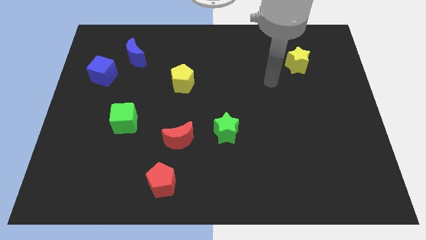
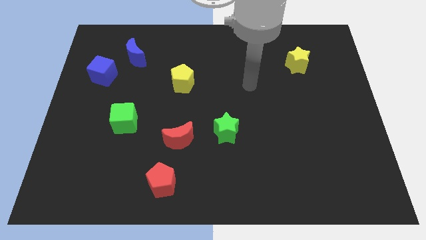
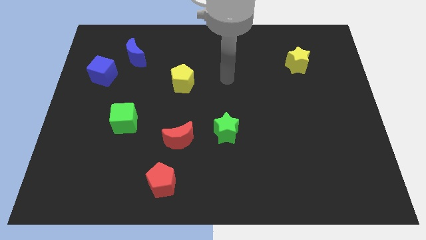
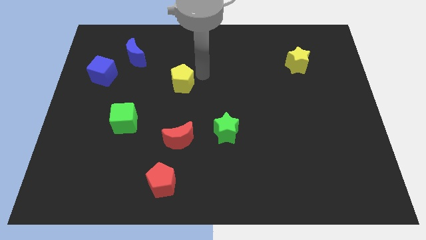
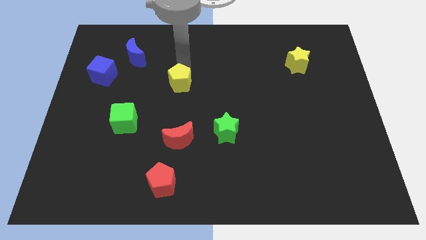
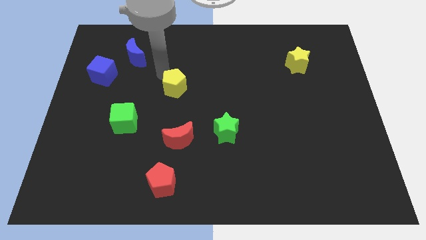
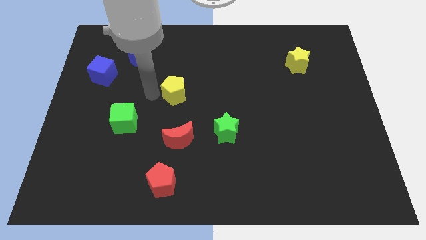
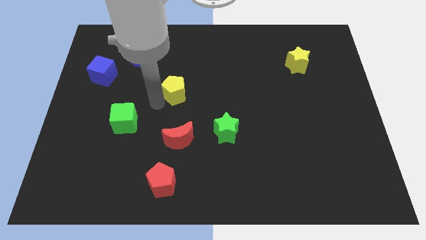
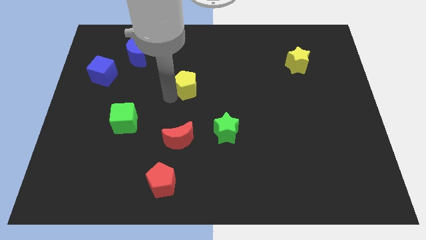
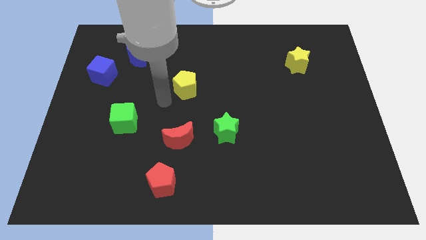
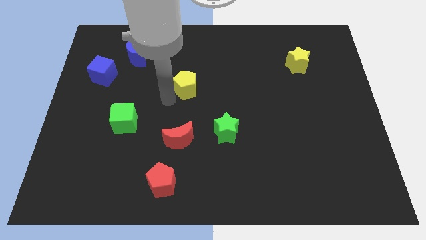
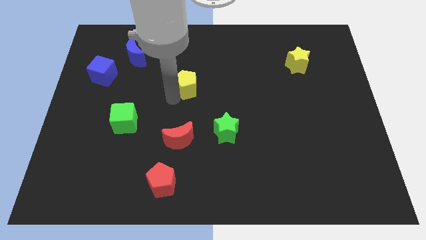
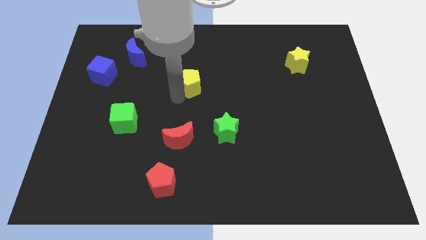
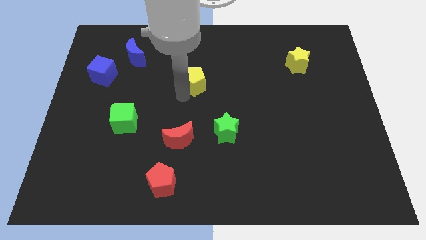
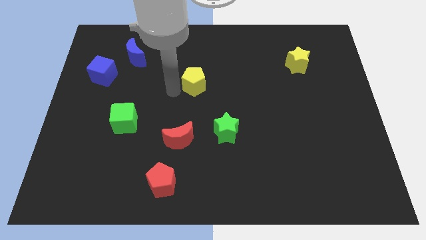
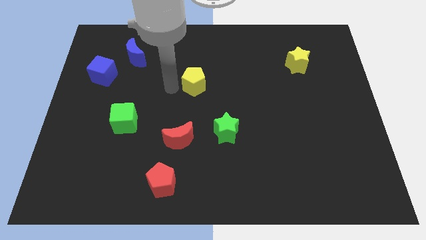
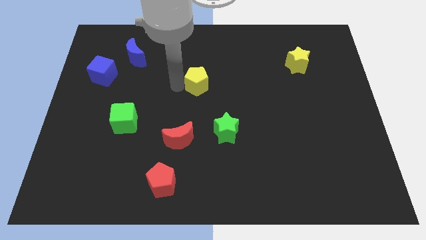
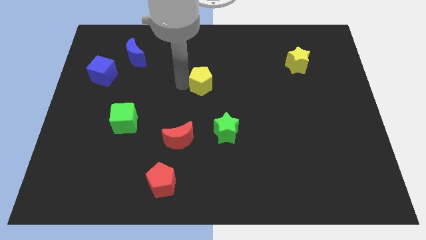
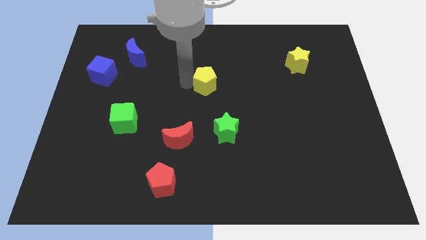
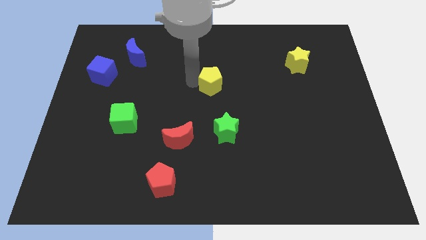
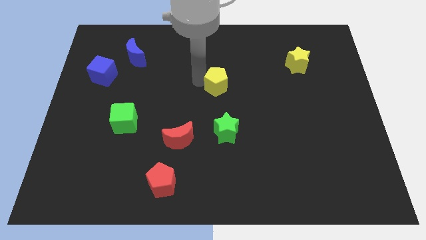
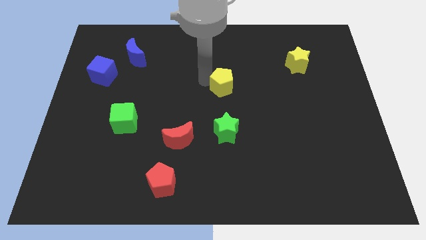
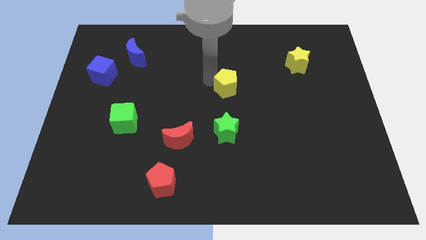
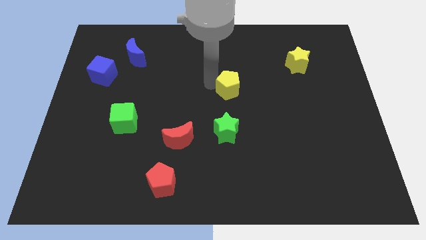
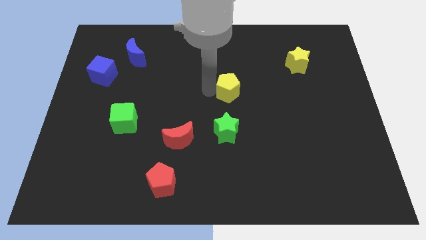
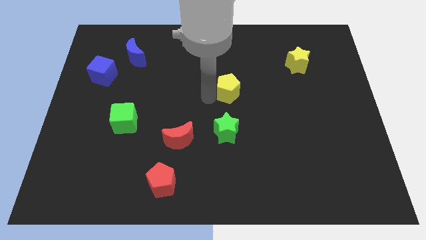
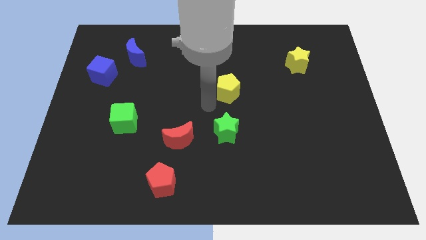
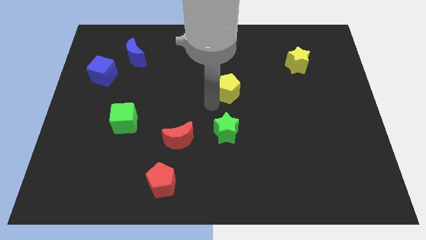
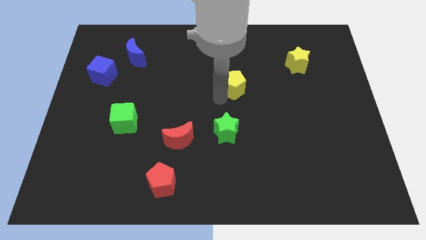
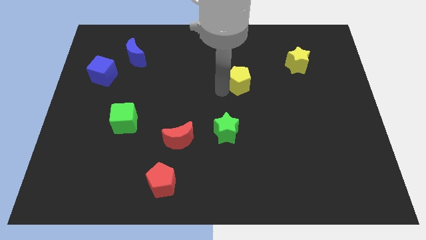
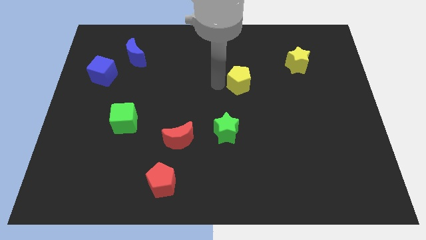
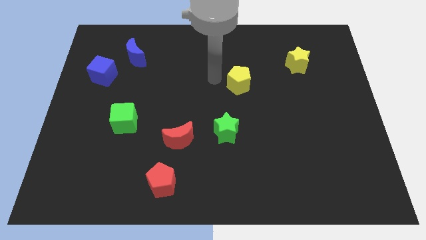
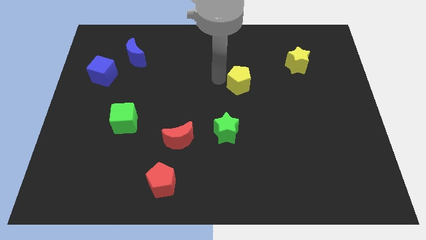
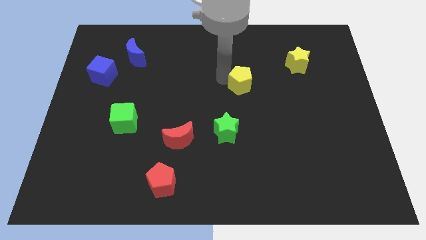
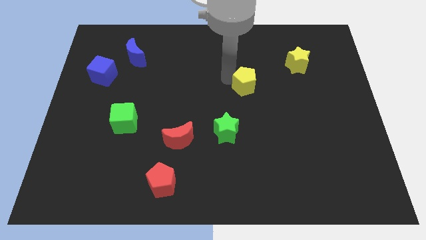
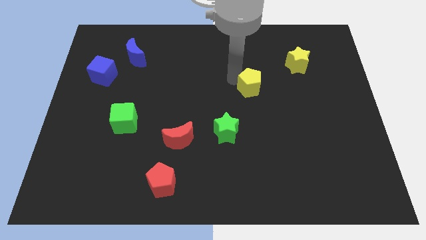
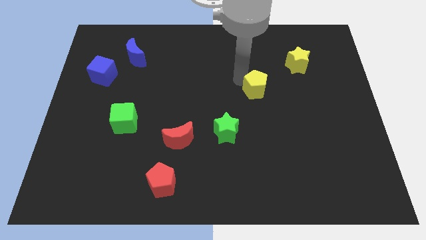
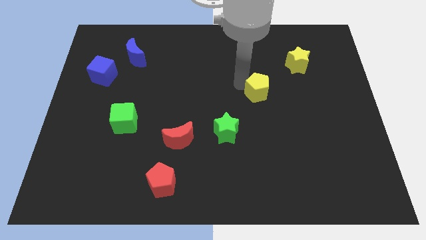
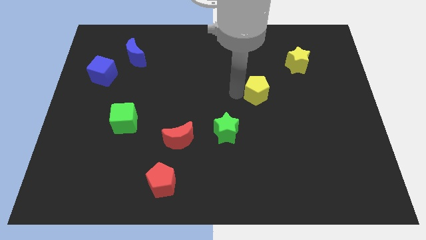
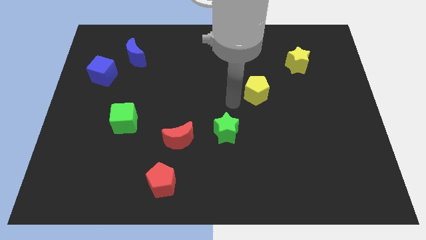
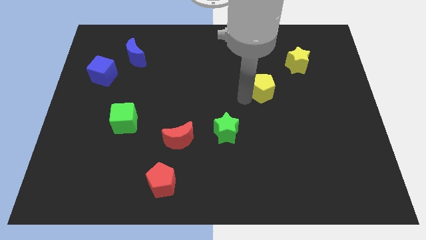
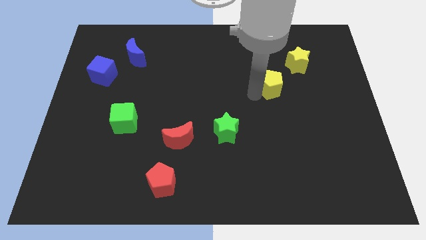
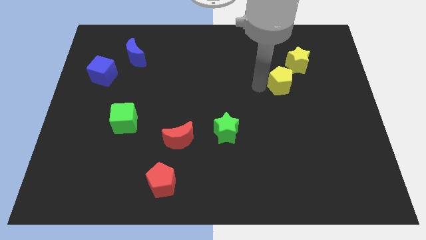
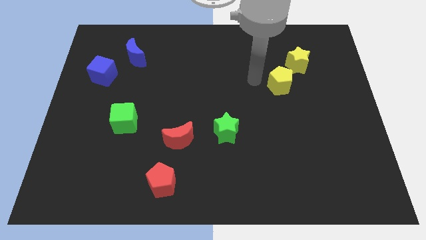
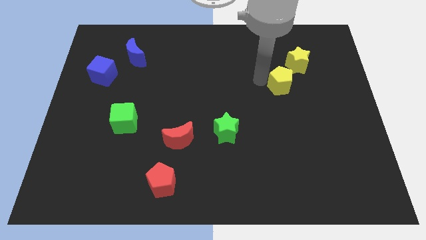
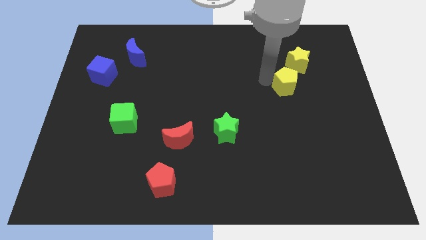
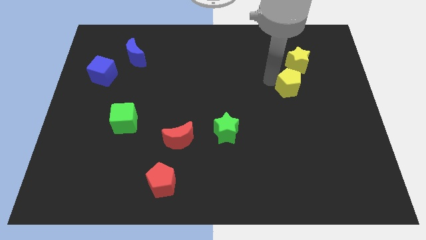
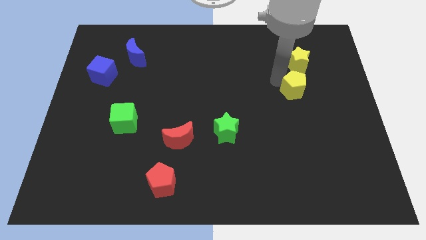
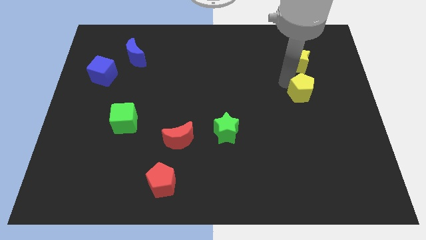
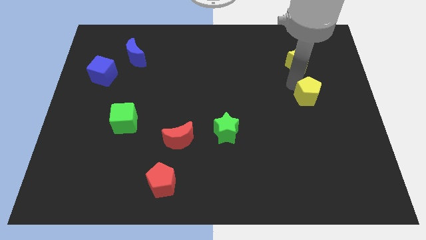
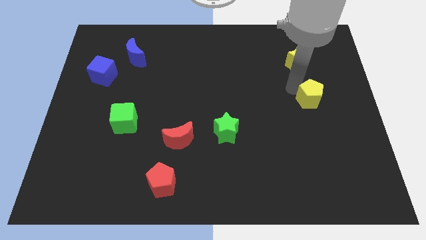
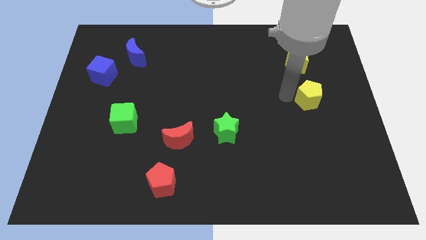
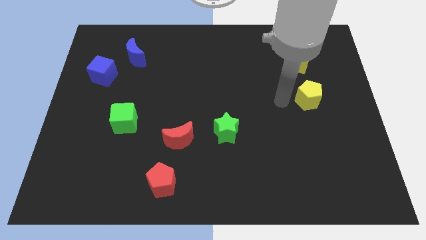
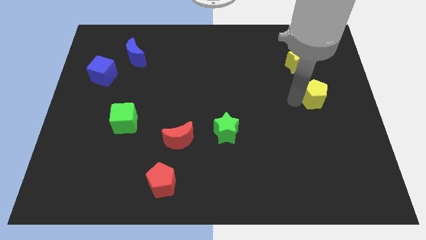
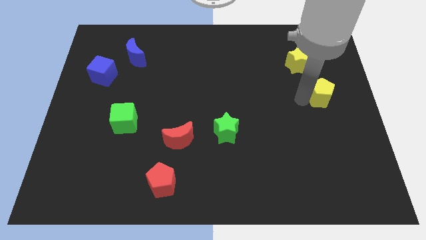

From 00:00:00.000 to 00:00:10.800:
slide the yellow pentagon to the right side of the board
